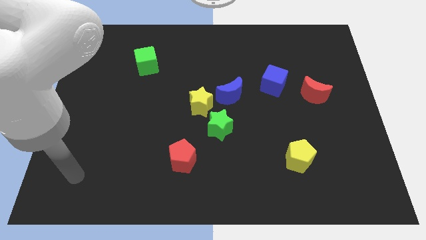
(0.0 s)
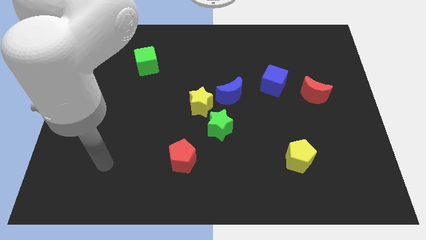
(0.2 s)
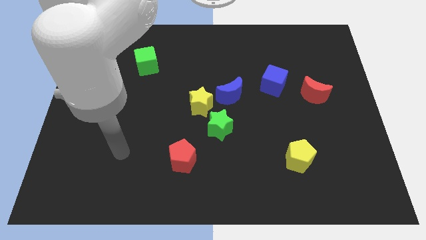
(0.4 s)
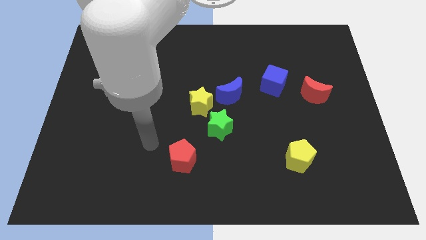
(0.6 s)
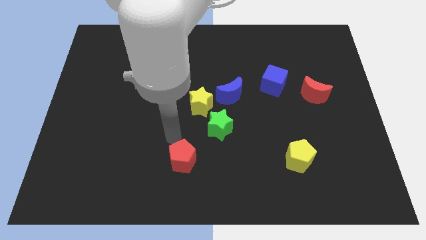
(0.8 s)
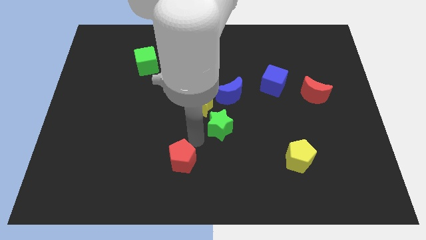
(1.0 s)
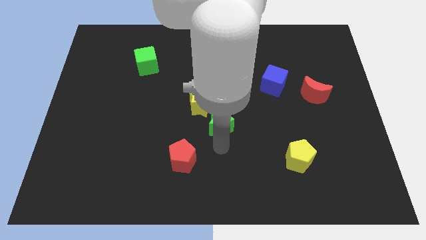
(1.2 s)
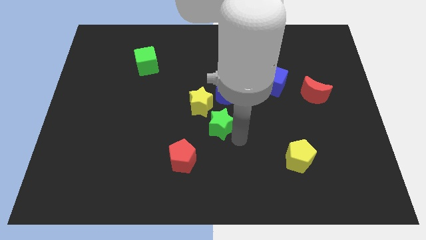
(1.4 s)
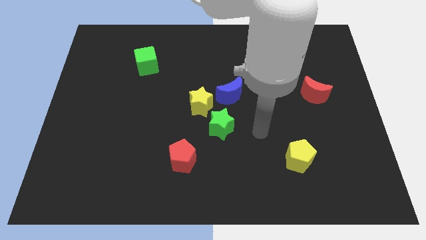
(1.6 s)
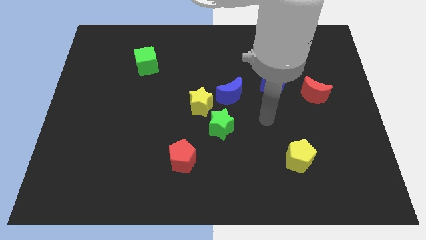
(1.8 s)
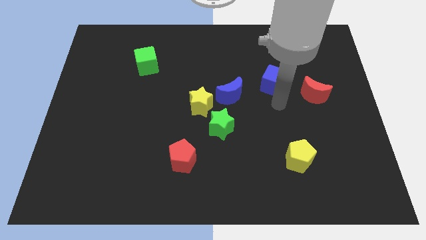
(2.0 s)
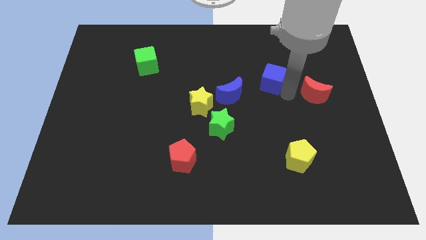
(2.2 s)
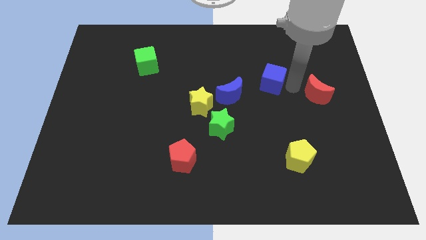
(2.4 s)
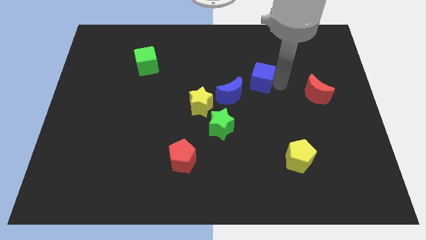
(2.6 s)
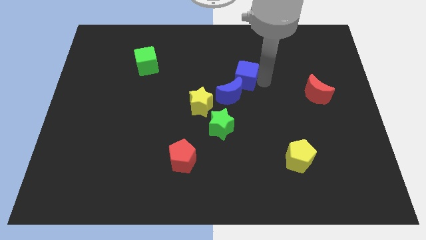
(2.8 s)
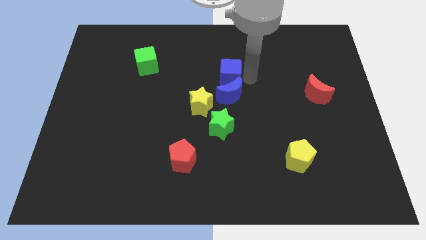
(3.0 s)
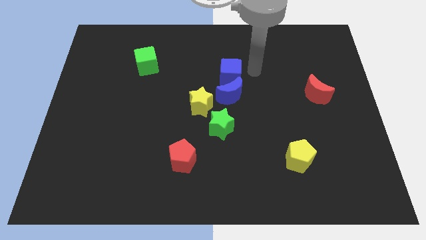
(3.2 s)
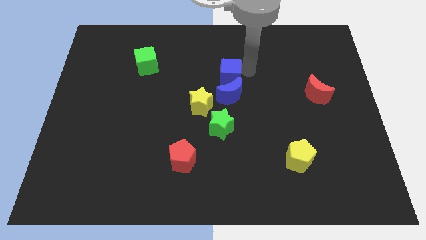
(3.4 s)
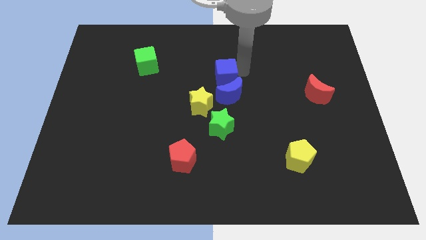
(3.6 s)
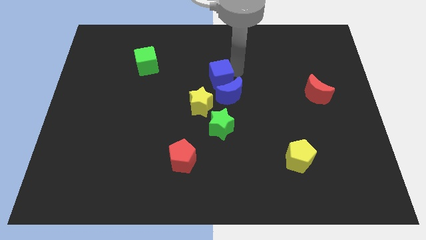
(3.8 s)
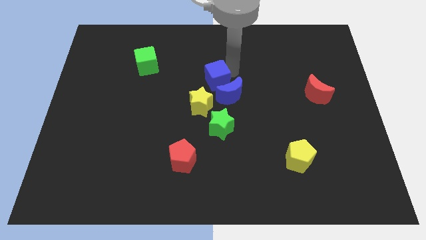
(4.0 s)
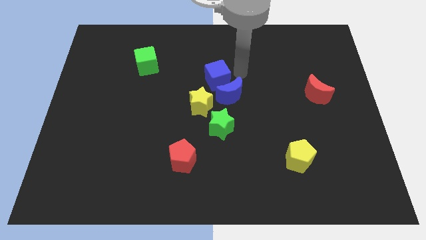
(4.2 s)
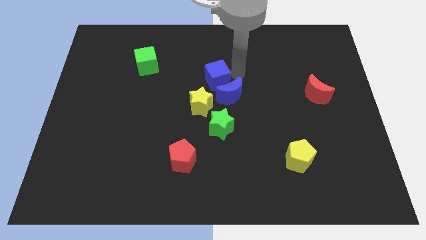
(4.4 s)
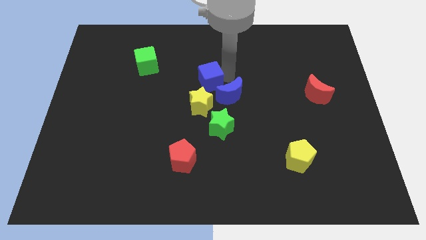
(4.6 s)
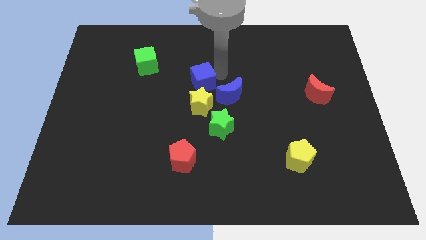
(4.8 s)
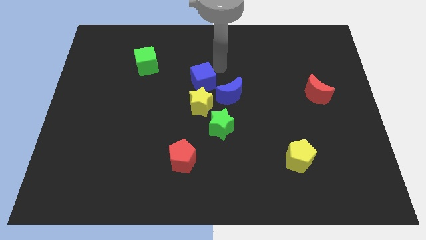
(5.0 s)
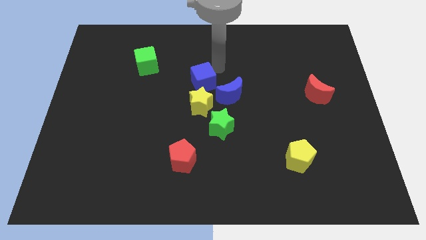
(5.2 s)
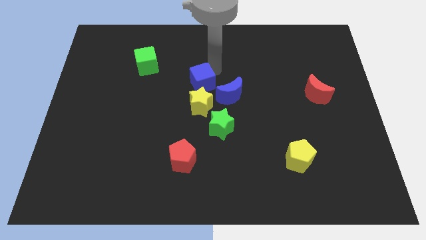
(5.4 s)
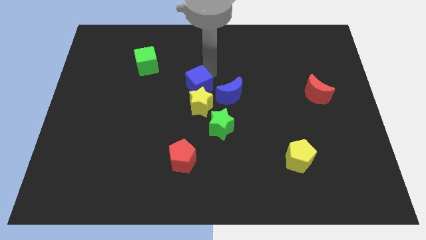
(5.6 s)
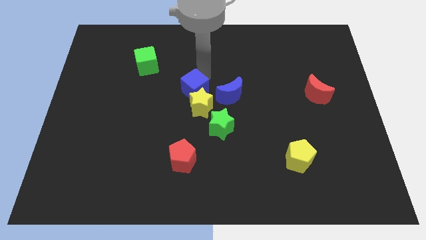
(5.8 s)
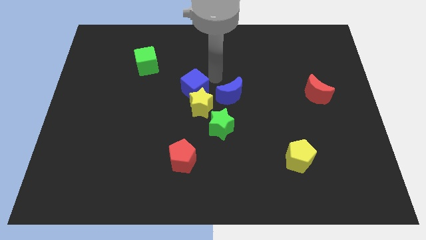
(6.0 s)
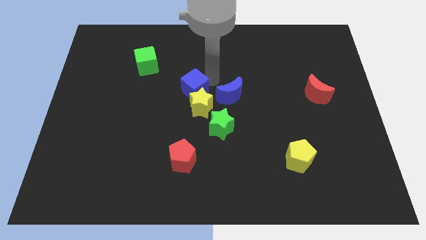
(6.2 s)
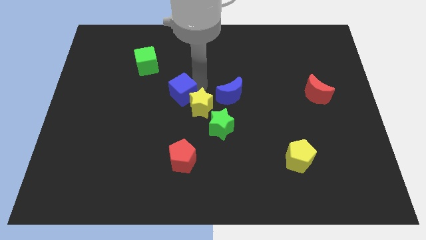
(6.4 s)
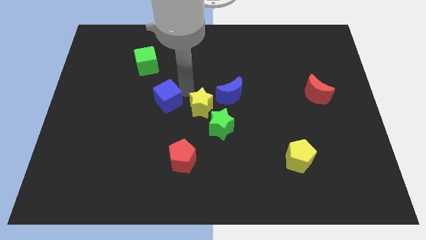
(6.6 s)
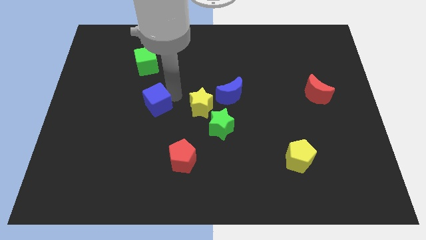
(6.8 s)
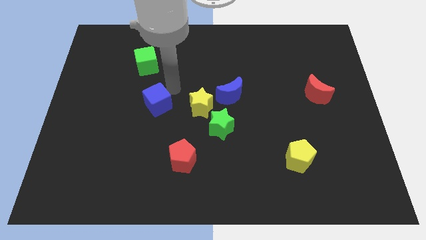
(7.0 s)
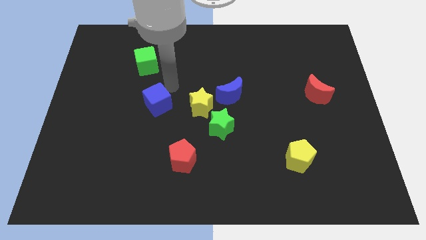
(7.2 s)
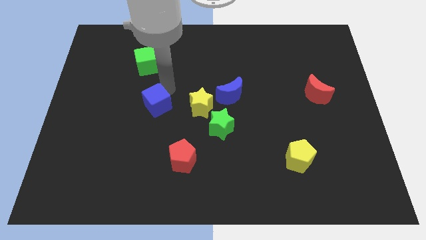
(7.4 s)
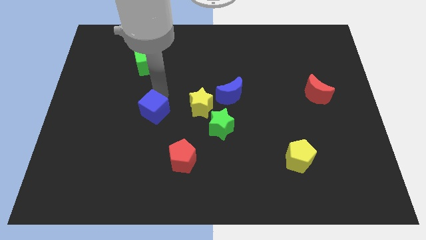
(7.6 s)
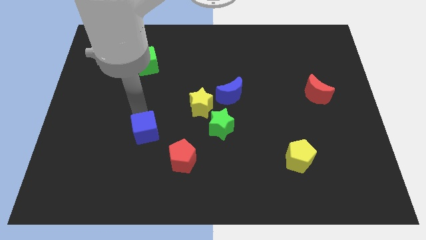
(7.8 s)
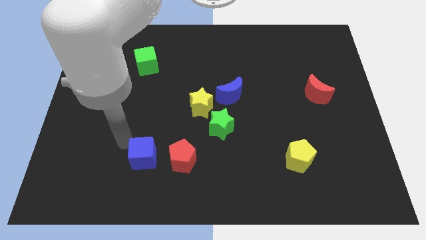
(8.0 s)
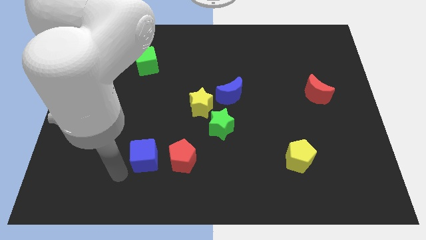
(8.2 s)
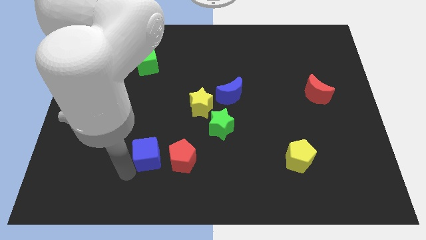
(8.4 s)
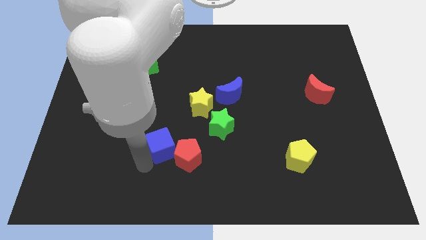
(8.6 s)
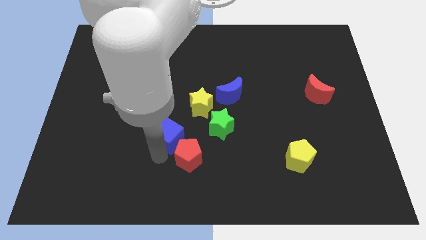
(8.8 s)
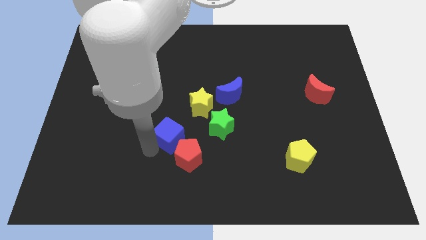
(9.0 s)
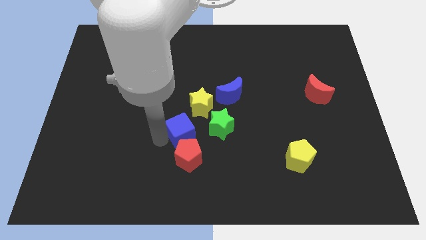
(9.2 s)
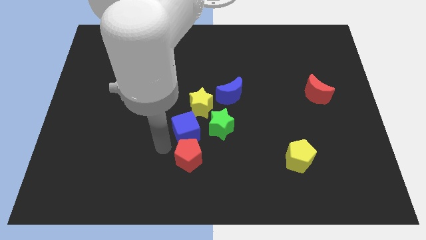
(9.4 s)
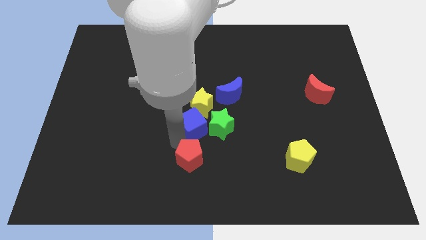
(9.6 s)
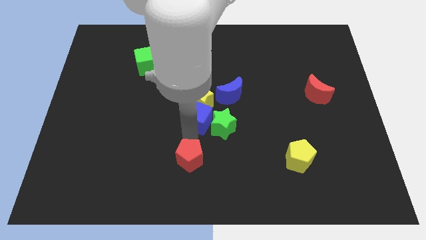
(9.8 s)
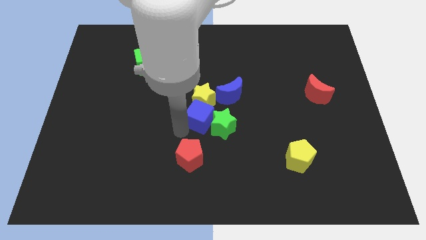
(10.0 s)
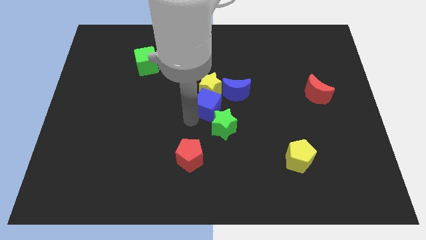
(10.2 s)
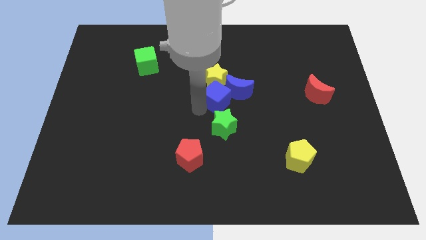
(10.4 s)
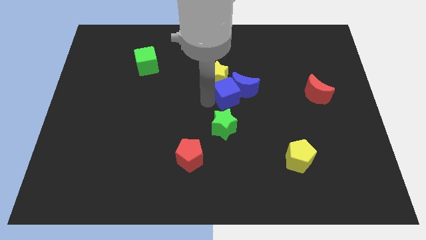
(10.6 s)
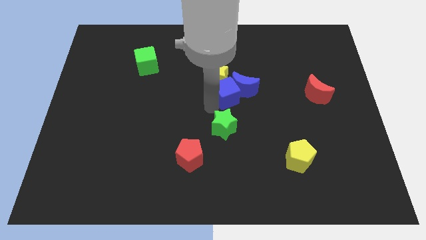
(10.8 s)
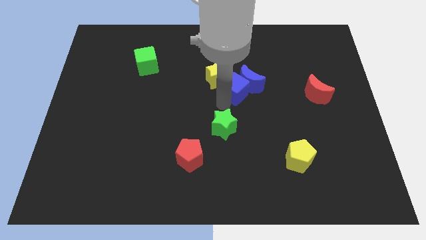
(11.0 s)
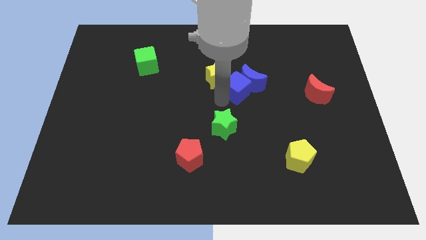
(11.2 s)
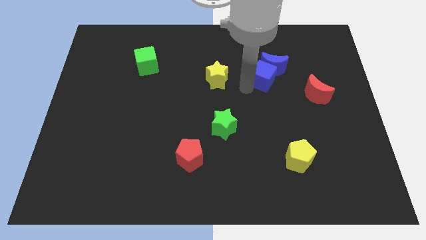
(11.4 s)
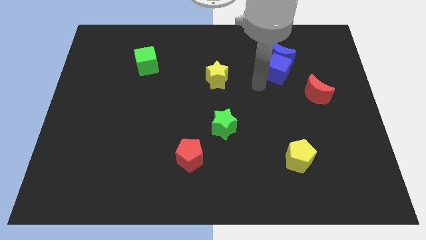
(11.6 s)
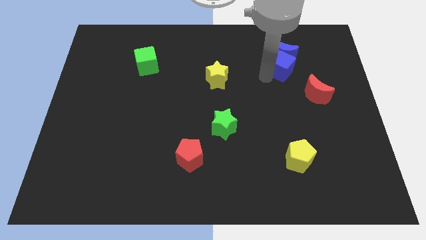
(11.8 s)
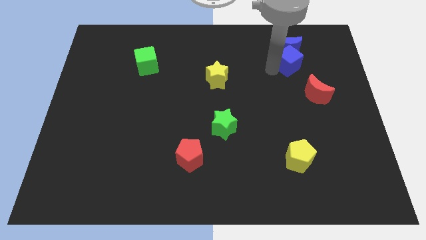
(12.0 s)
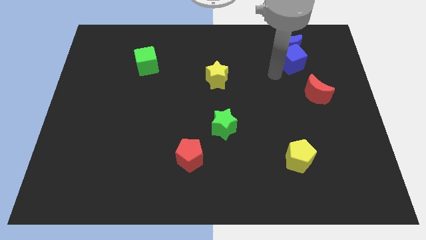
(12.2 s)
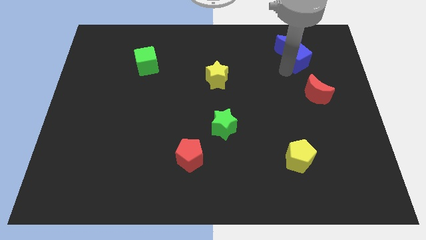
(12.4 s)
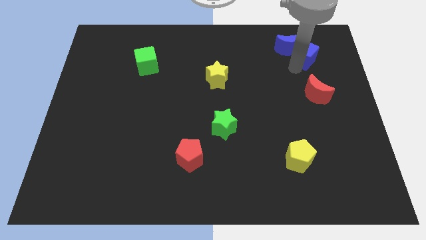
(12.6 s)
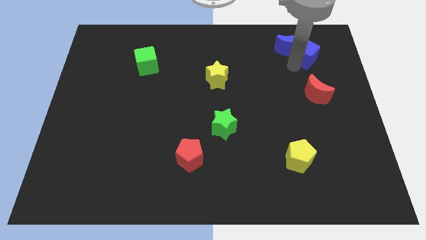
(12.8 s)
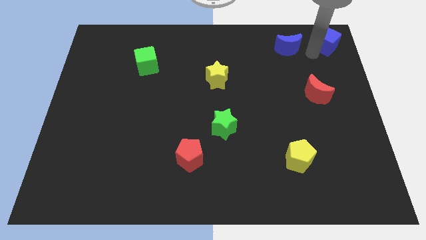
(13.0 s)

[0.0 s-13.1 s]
put the blue cube to the top right

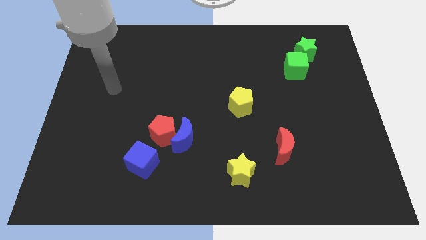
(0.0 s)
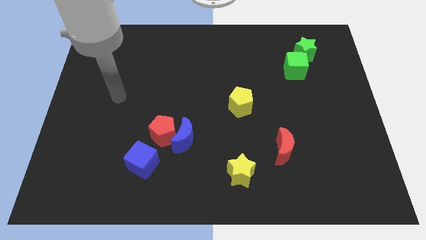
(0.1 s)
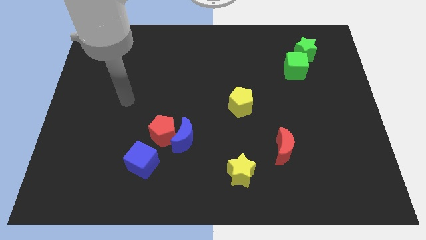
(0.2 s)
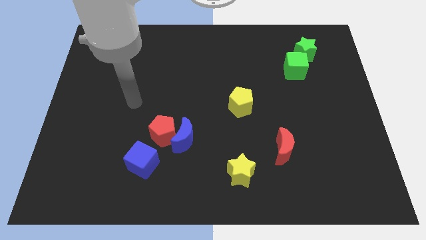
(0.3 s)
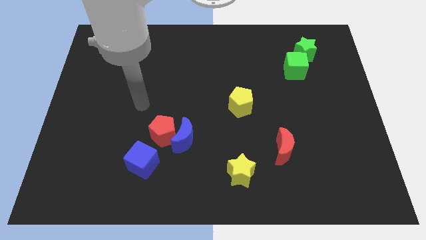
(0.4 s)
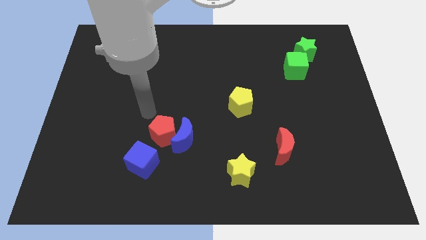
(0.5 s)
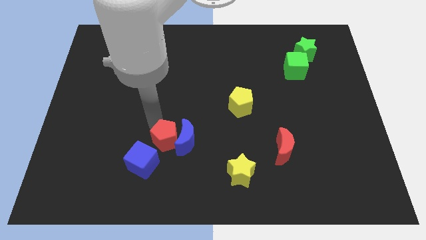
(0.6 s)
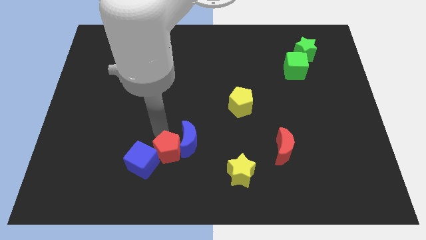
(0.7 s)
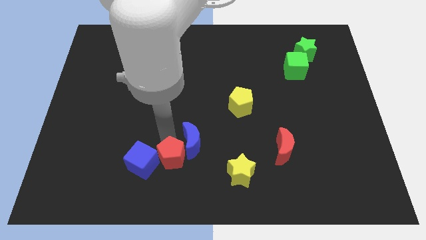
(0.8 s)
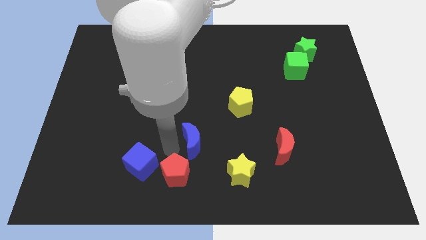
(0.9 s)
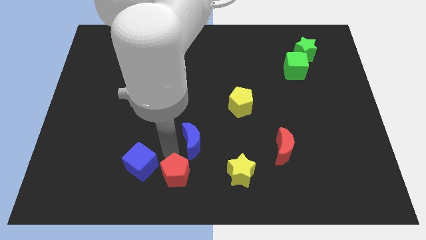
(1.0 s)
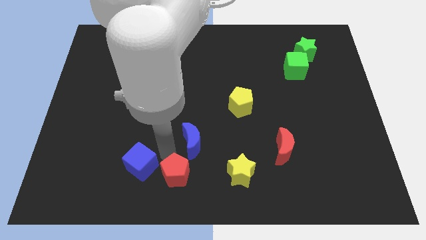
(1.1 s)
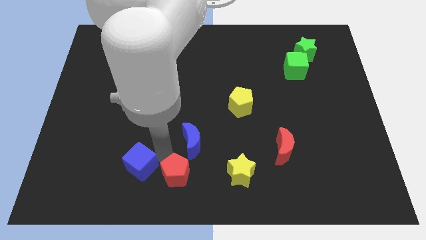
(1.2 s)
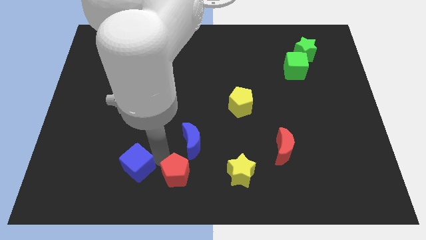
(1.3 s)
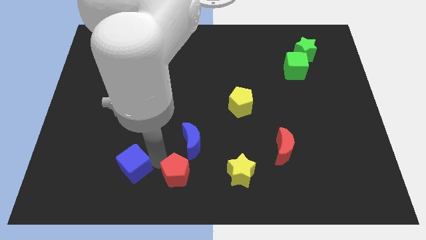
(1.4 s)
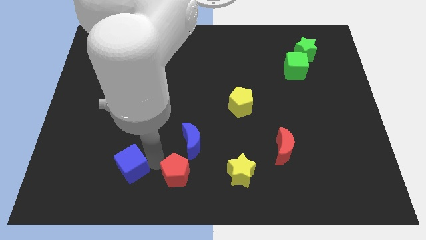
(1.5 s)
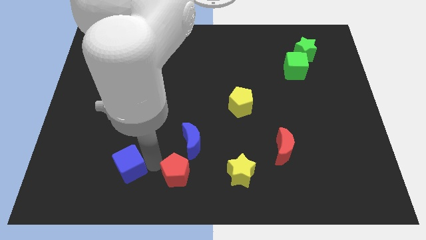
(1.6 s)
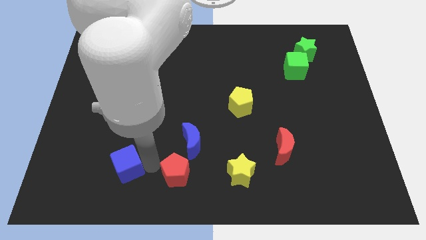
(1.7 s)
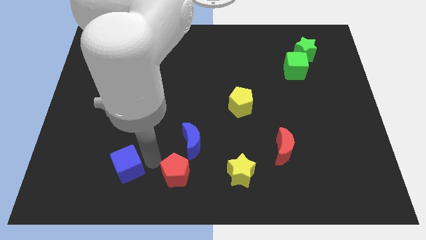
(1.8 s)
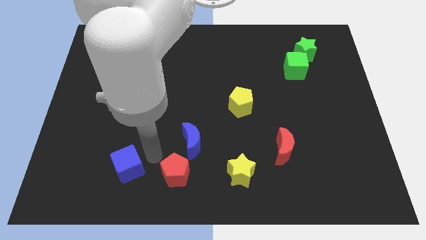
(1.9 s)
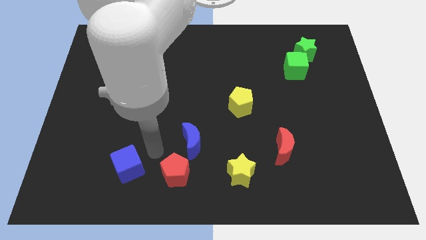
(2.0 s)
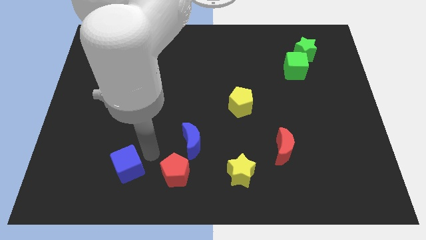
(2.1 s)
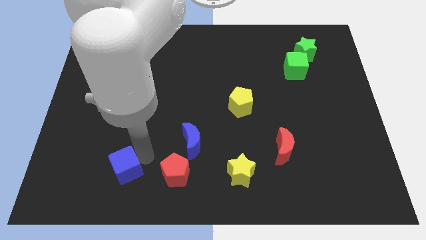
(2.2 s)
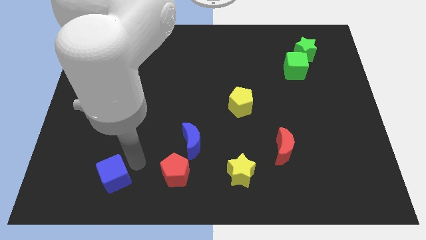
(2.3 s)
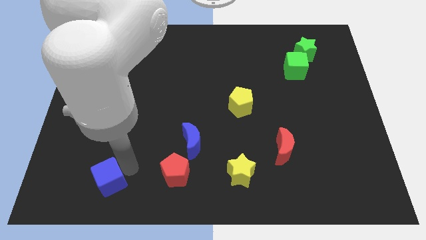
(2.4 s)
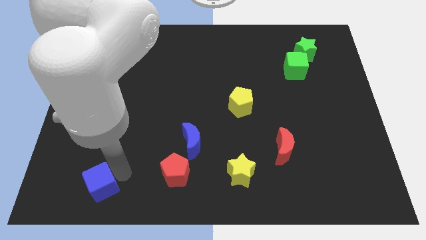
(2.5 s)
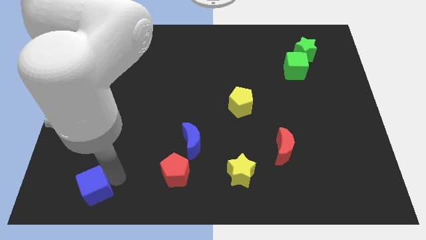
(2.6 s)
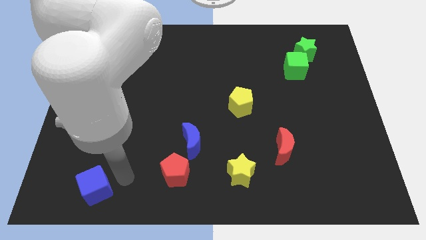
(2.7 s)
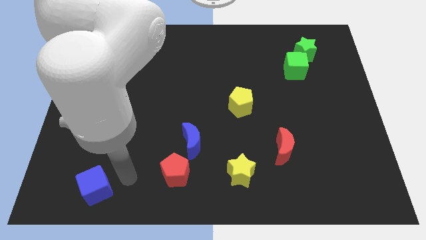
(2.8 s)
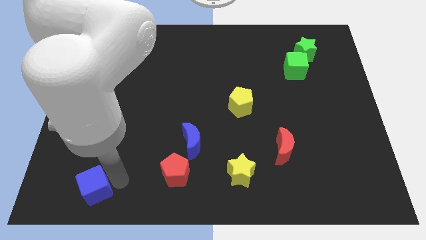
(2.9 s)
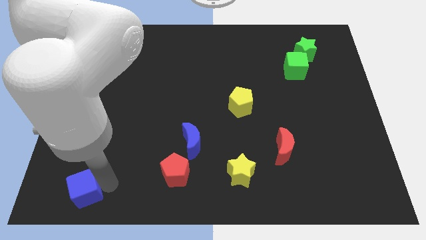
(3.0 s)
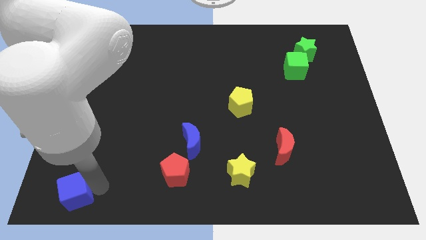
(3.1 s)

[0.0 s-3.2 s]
move the blue cube to the lower left corner
